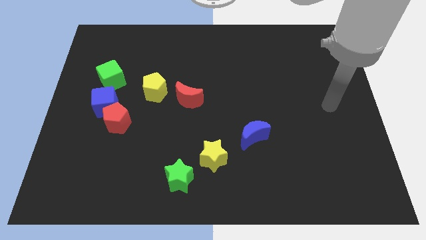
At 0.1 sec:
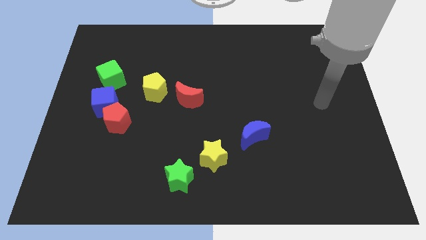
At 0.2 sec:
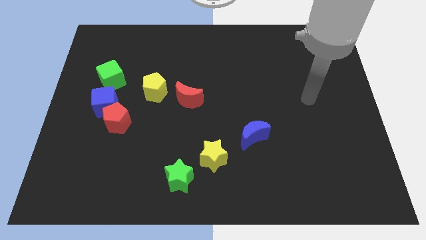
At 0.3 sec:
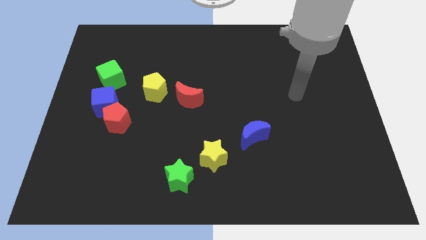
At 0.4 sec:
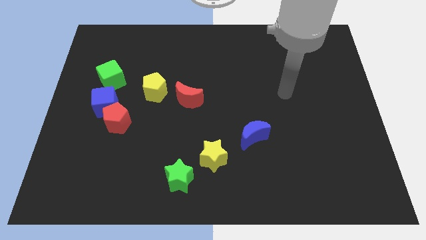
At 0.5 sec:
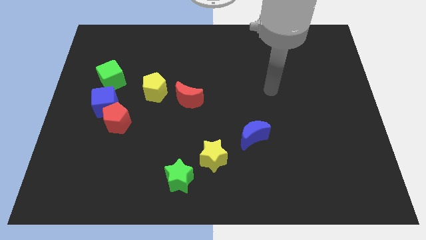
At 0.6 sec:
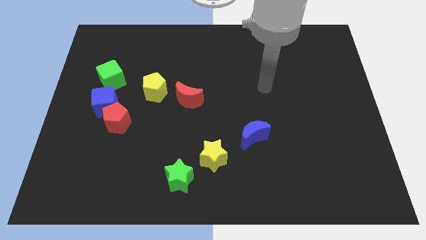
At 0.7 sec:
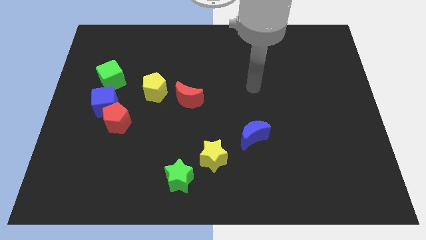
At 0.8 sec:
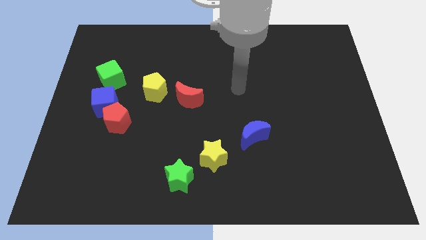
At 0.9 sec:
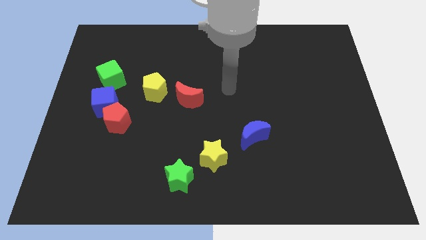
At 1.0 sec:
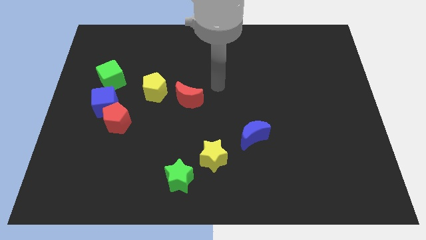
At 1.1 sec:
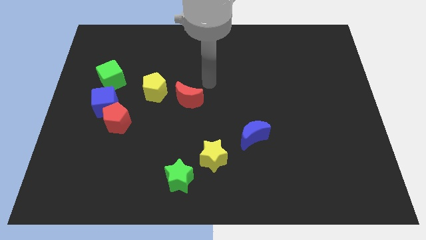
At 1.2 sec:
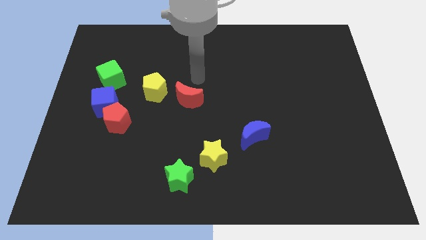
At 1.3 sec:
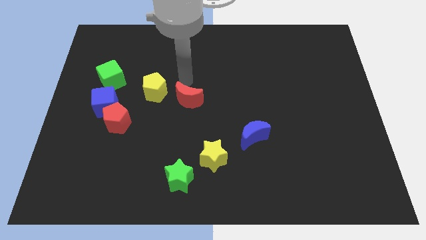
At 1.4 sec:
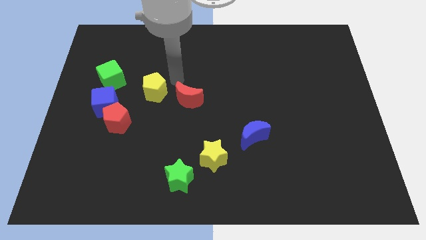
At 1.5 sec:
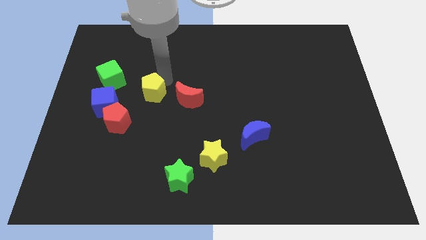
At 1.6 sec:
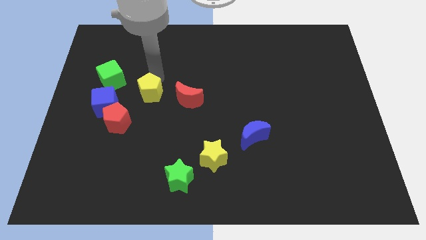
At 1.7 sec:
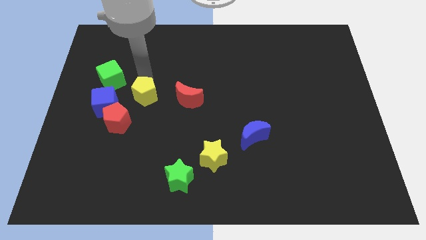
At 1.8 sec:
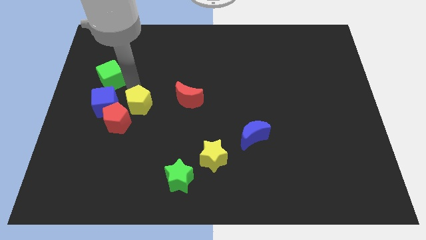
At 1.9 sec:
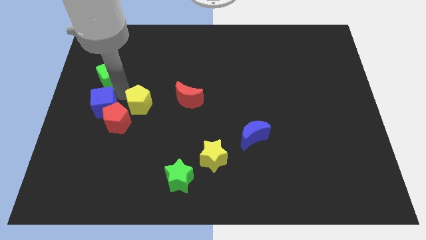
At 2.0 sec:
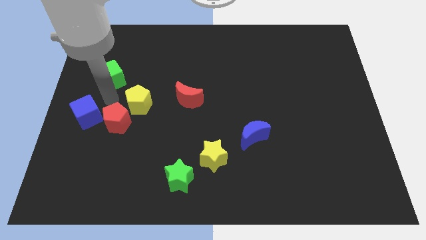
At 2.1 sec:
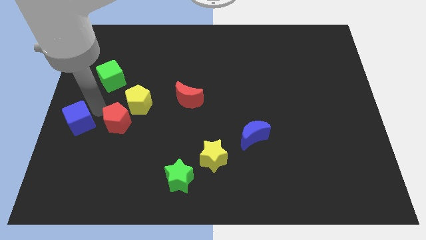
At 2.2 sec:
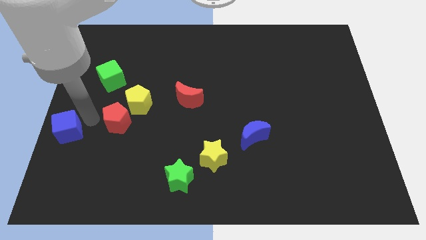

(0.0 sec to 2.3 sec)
move the red pentagon away from the blue cube

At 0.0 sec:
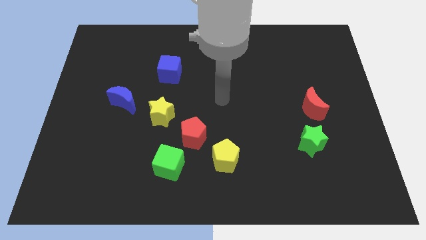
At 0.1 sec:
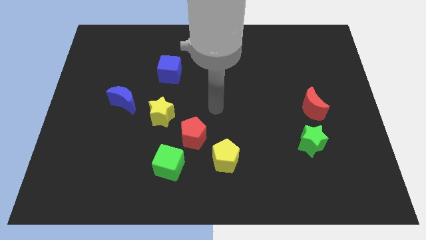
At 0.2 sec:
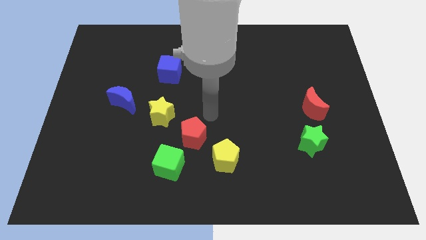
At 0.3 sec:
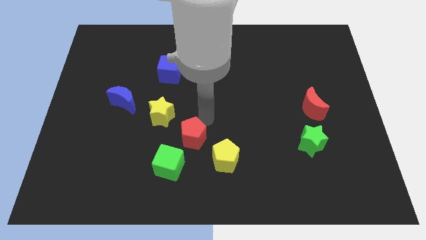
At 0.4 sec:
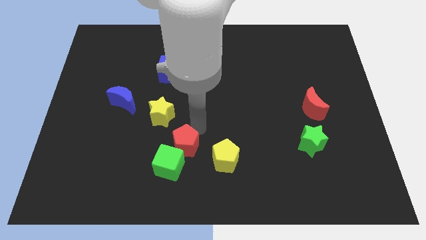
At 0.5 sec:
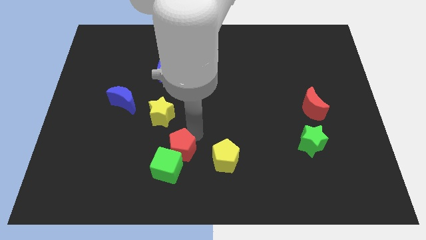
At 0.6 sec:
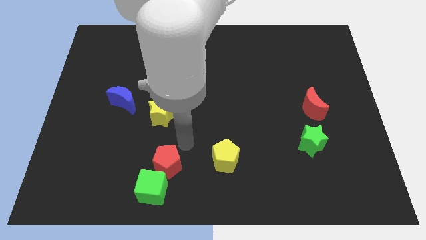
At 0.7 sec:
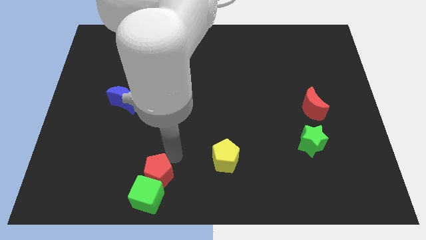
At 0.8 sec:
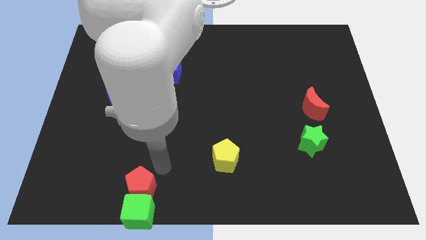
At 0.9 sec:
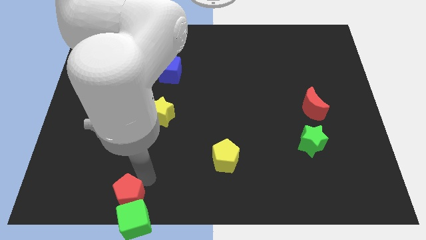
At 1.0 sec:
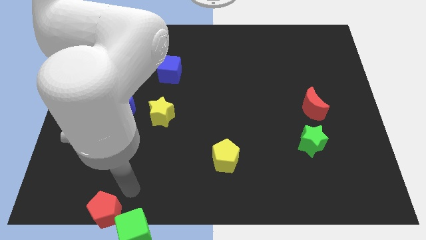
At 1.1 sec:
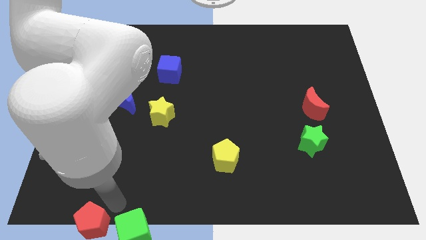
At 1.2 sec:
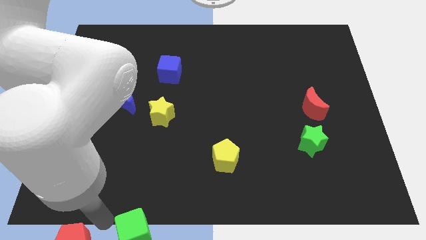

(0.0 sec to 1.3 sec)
pull the green cube apart from the red pentagon

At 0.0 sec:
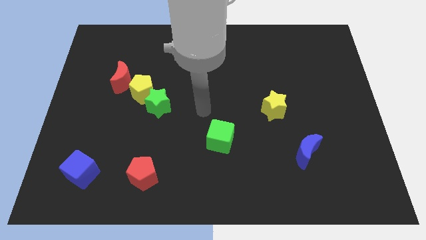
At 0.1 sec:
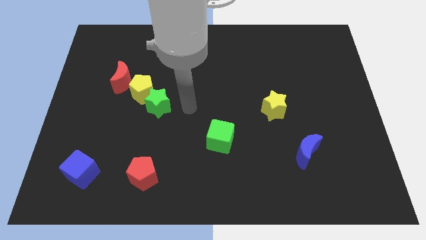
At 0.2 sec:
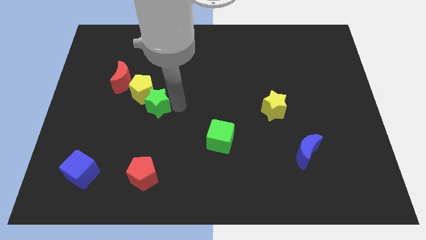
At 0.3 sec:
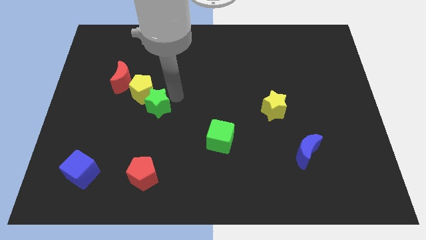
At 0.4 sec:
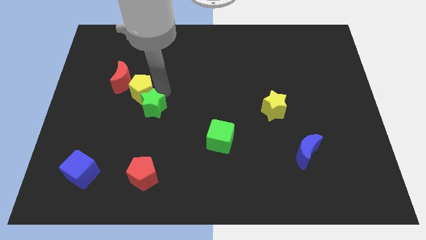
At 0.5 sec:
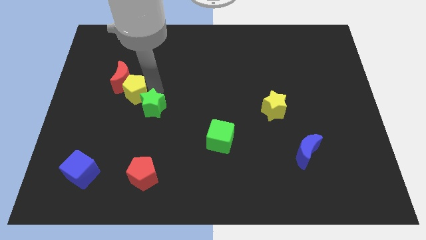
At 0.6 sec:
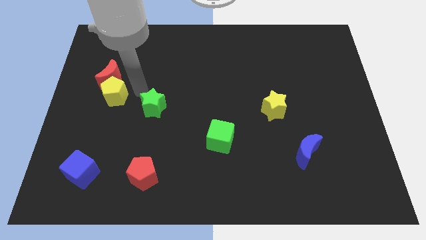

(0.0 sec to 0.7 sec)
separate the green star from the yellow pentagon

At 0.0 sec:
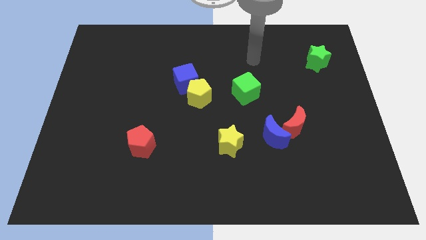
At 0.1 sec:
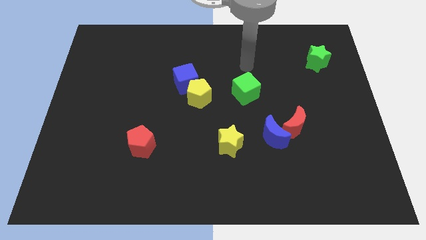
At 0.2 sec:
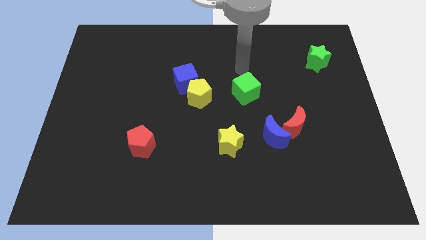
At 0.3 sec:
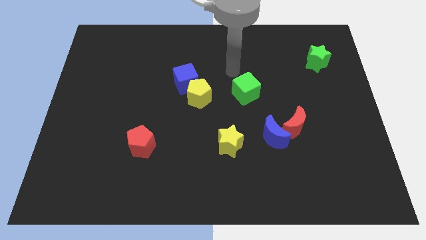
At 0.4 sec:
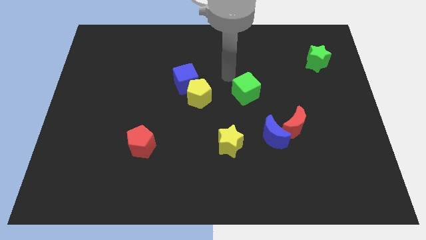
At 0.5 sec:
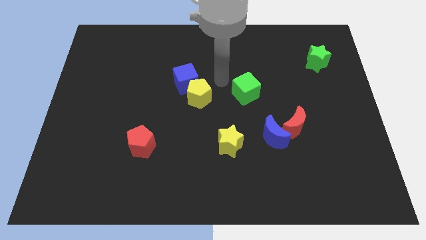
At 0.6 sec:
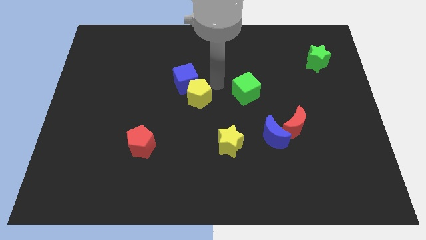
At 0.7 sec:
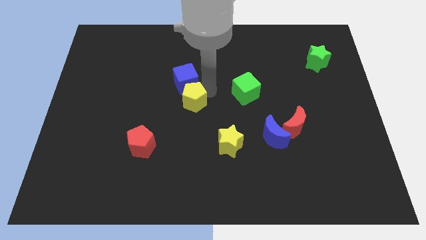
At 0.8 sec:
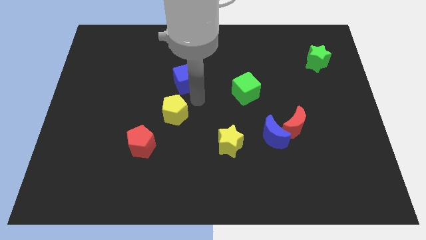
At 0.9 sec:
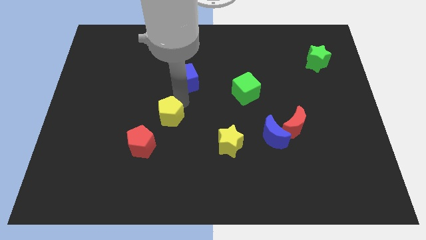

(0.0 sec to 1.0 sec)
pull the blue cube apart from the yellow pentagon

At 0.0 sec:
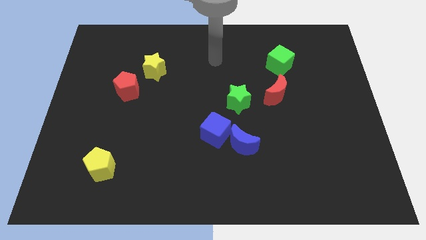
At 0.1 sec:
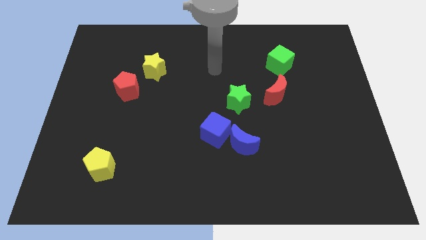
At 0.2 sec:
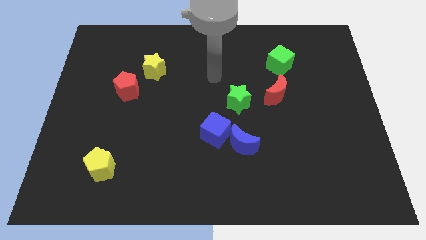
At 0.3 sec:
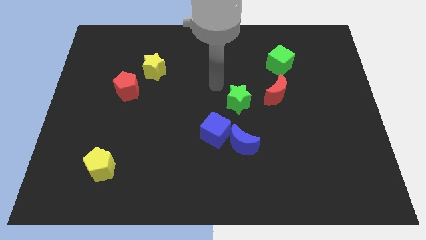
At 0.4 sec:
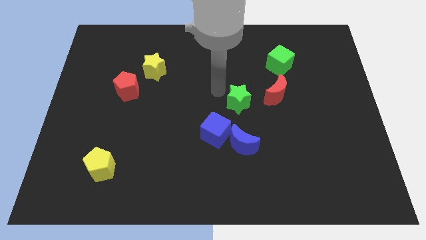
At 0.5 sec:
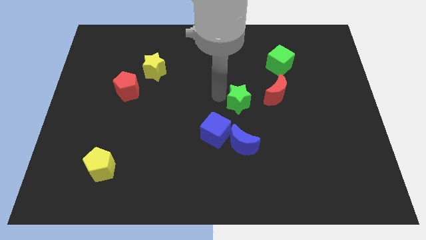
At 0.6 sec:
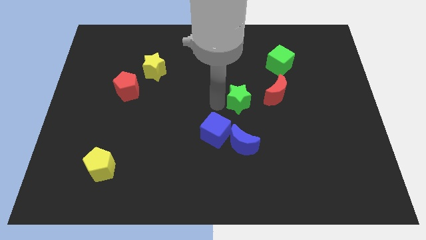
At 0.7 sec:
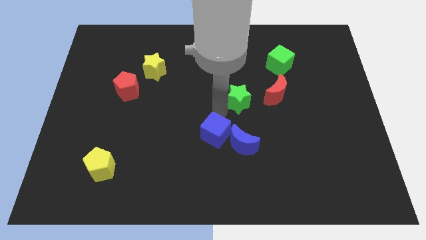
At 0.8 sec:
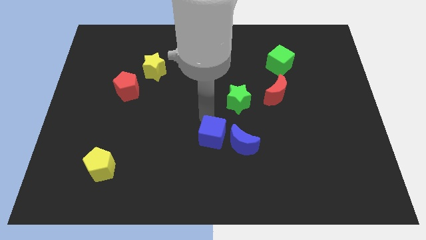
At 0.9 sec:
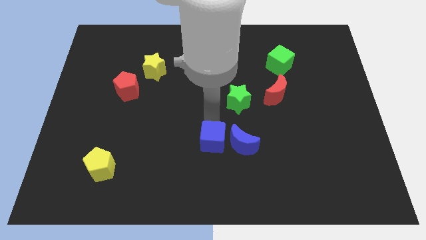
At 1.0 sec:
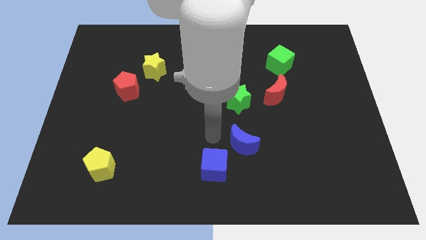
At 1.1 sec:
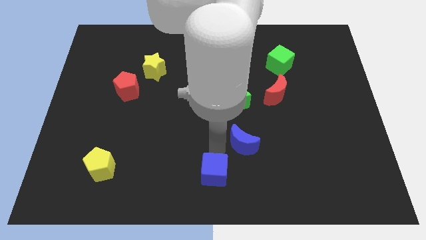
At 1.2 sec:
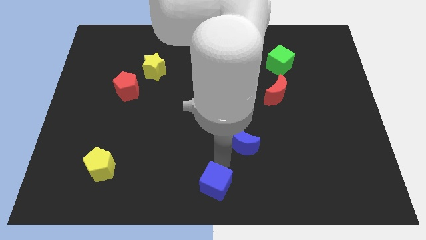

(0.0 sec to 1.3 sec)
move the blue moon away from the blue cube

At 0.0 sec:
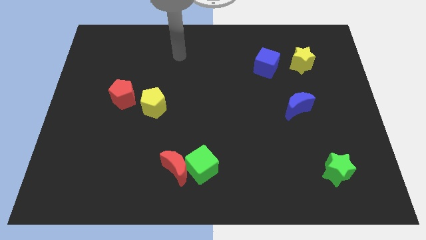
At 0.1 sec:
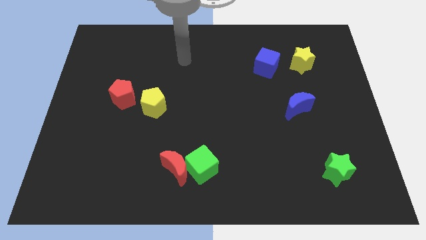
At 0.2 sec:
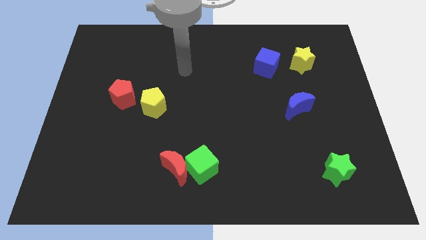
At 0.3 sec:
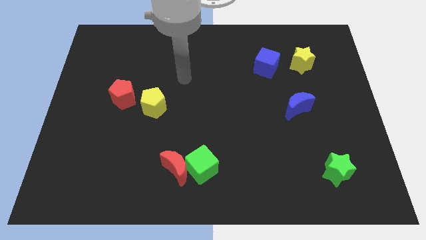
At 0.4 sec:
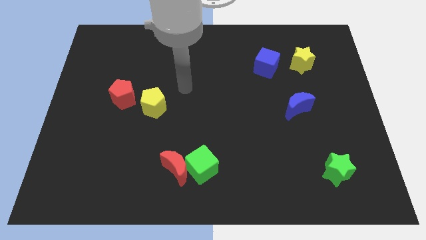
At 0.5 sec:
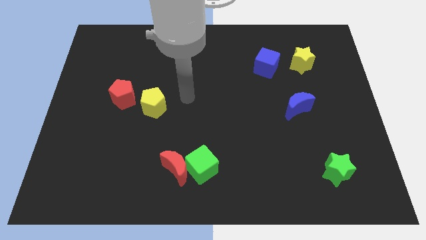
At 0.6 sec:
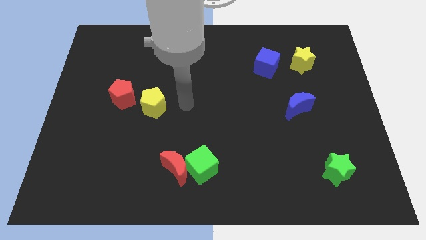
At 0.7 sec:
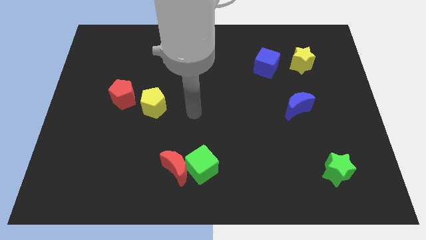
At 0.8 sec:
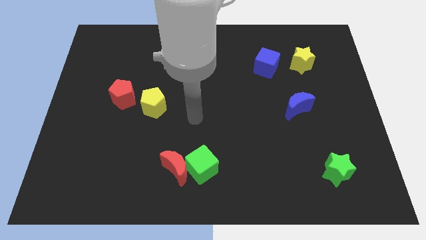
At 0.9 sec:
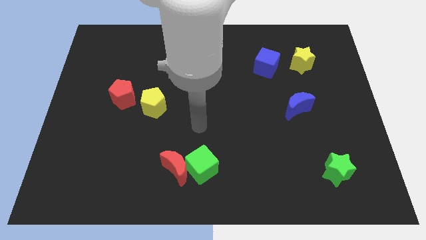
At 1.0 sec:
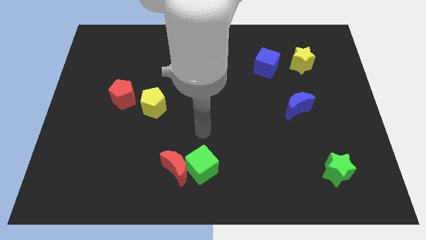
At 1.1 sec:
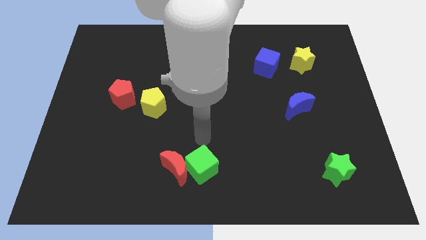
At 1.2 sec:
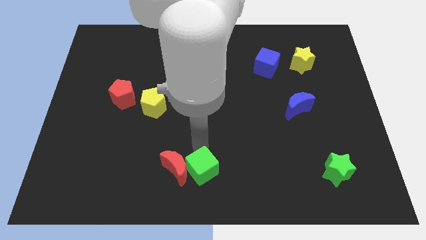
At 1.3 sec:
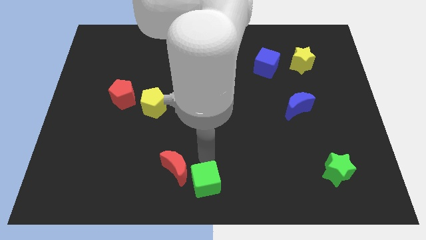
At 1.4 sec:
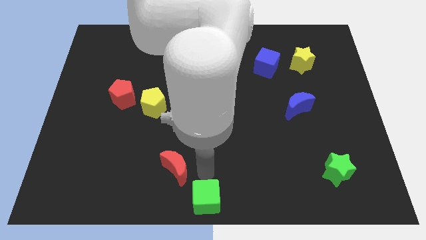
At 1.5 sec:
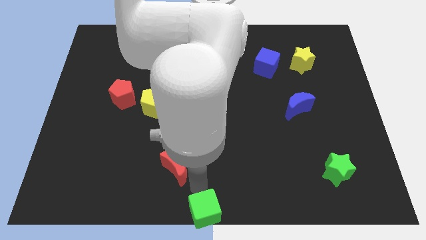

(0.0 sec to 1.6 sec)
pull the red moon apart from the green cube

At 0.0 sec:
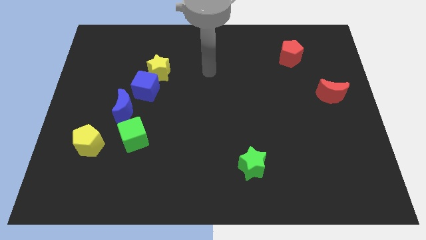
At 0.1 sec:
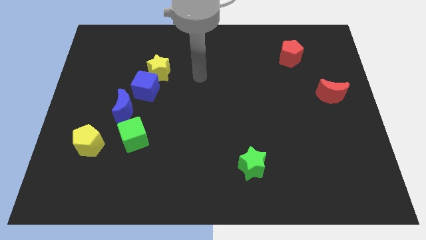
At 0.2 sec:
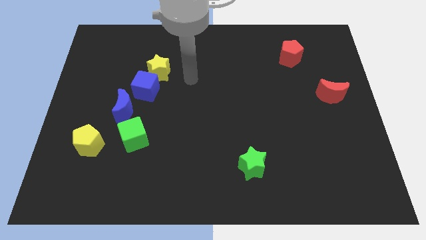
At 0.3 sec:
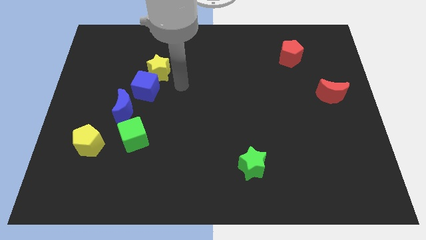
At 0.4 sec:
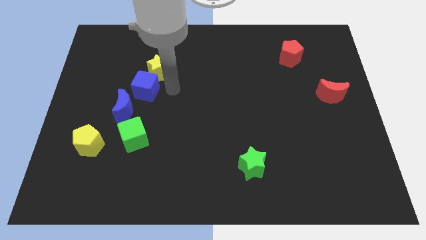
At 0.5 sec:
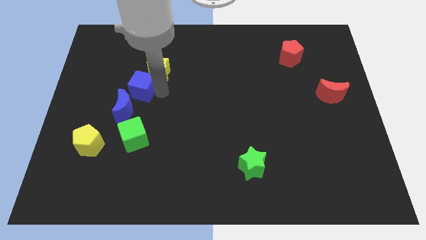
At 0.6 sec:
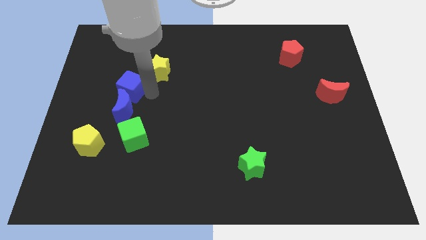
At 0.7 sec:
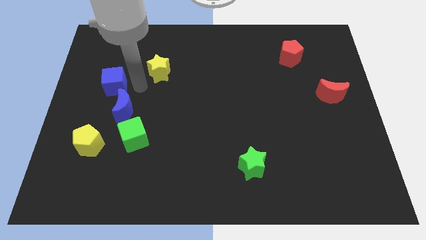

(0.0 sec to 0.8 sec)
separate the yellow star from the blue cube

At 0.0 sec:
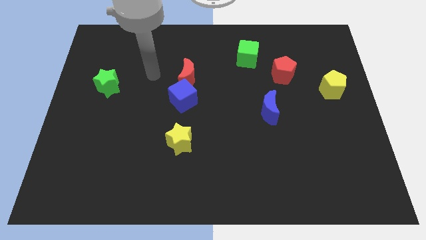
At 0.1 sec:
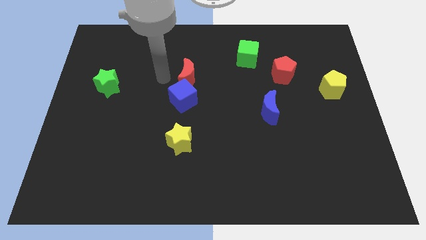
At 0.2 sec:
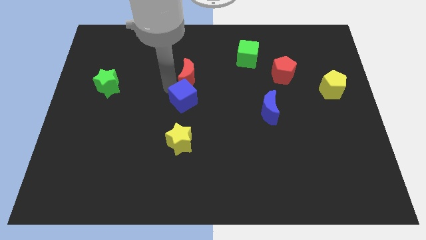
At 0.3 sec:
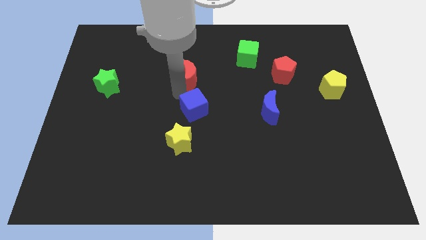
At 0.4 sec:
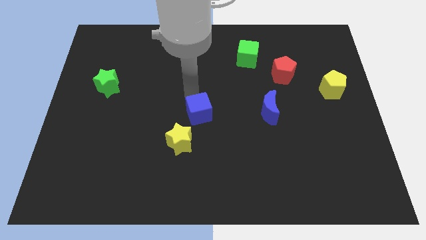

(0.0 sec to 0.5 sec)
separate the red moon from the blue cube
